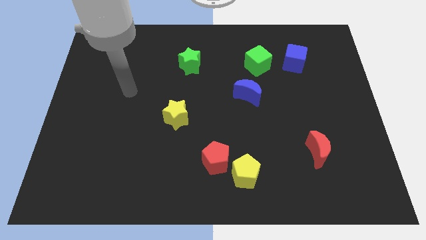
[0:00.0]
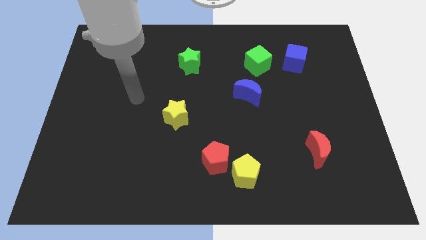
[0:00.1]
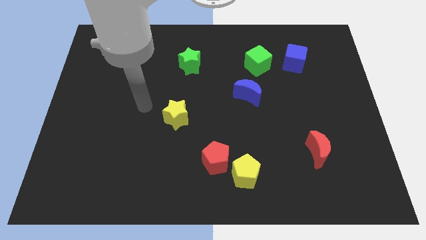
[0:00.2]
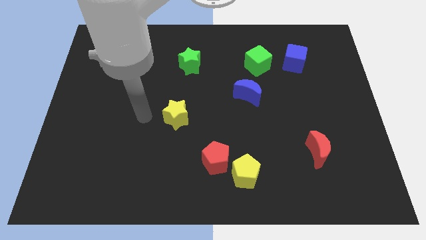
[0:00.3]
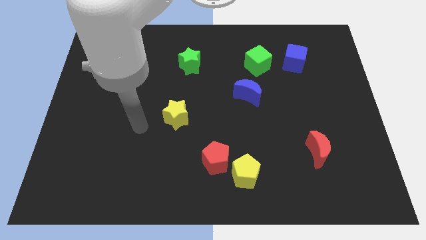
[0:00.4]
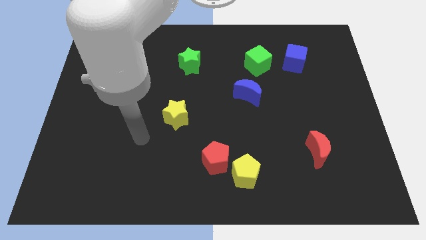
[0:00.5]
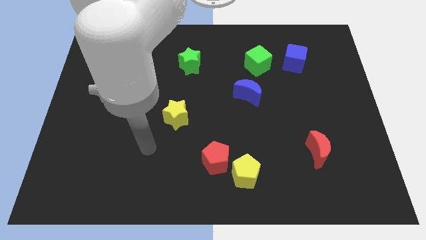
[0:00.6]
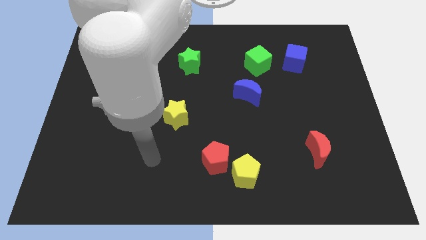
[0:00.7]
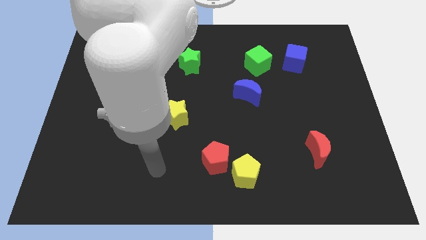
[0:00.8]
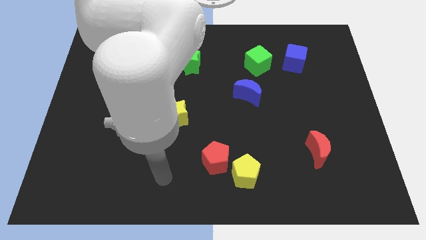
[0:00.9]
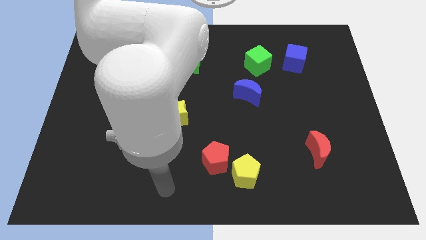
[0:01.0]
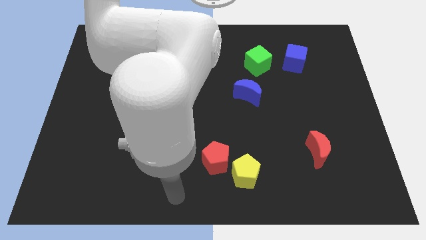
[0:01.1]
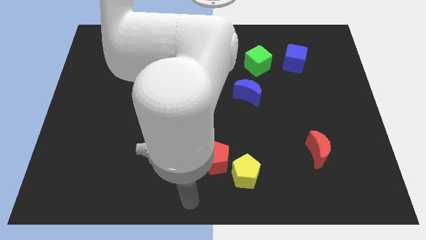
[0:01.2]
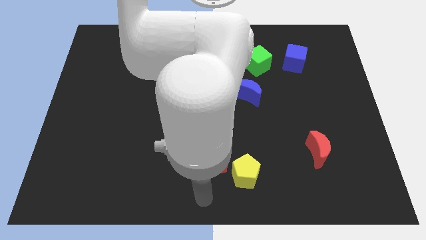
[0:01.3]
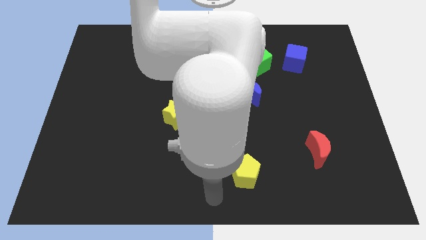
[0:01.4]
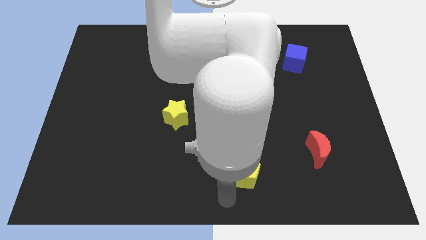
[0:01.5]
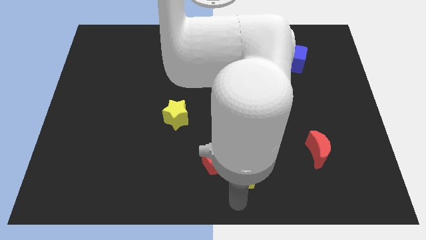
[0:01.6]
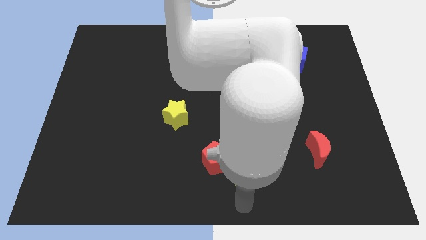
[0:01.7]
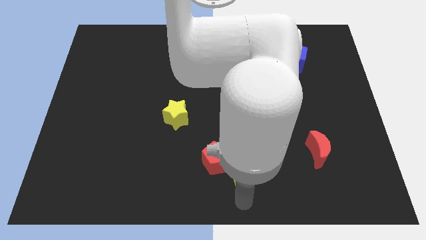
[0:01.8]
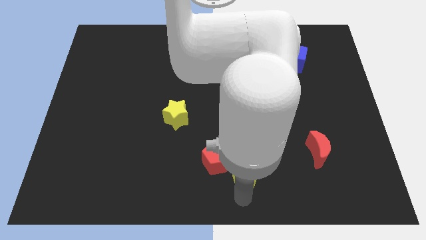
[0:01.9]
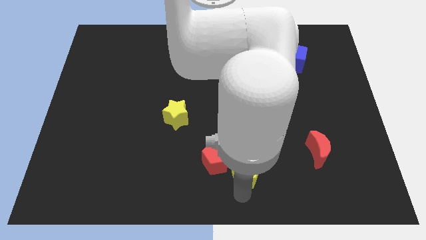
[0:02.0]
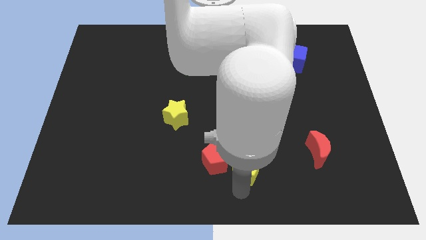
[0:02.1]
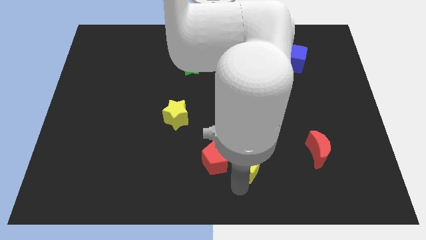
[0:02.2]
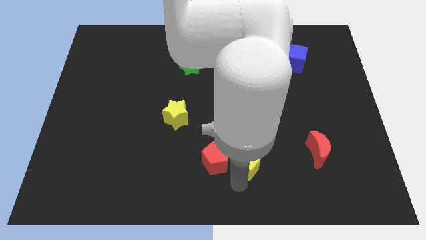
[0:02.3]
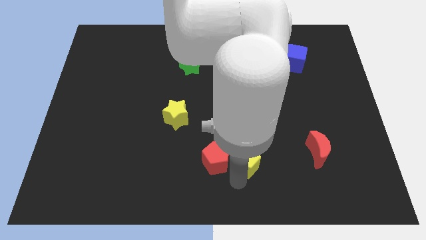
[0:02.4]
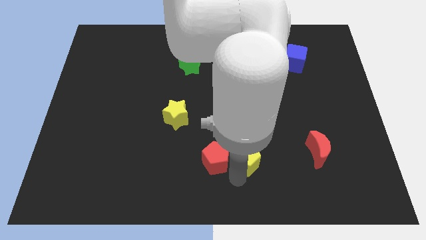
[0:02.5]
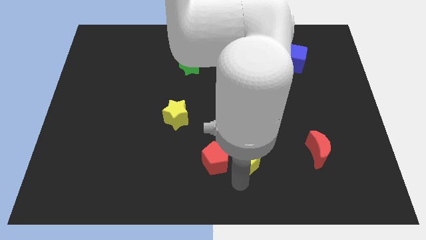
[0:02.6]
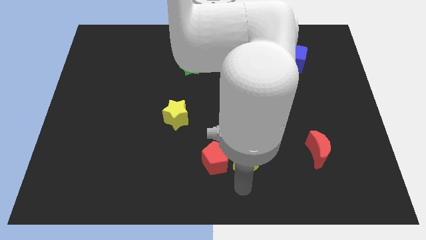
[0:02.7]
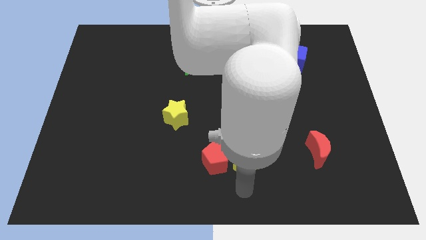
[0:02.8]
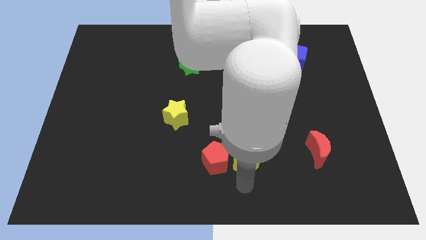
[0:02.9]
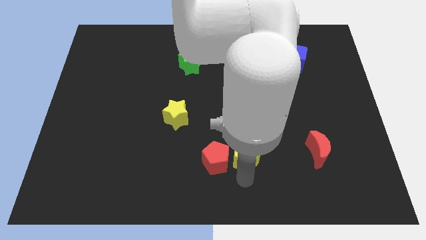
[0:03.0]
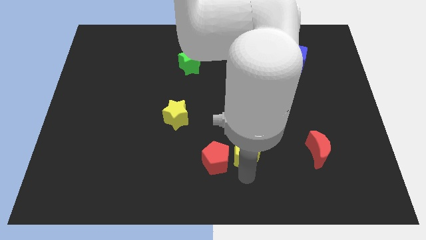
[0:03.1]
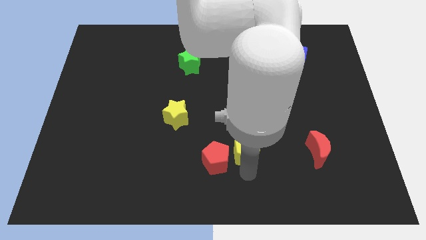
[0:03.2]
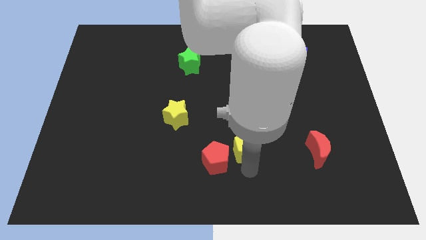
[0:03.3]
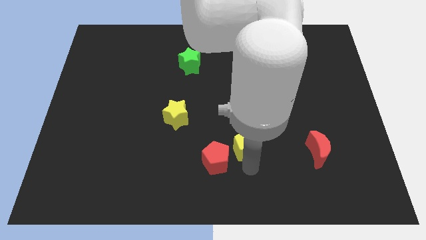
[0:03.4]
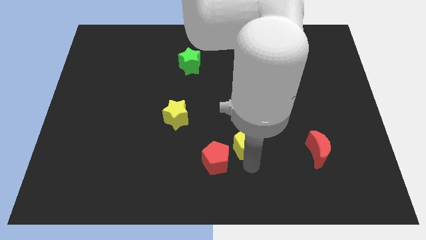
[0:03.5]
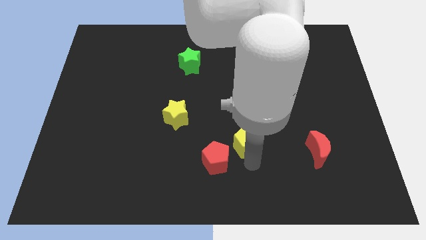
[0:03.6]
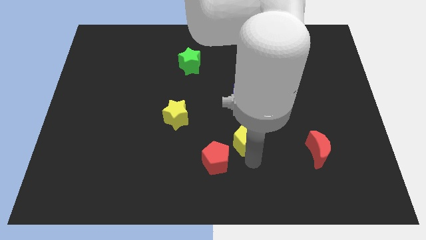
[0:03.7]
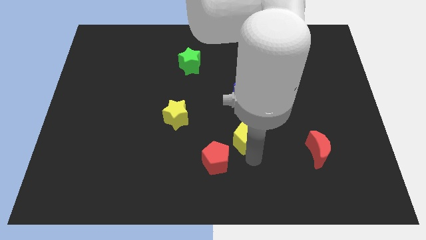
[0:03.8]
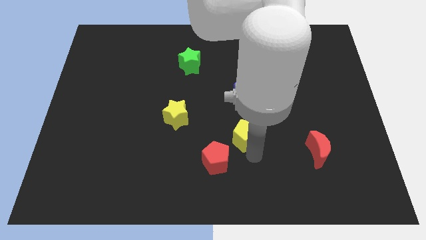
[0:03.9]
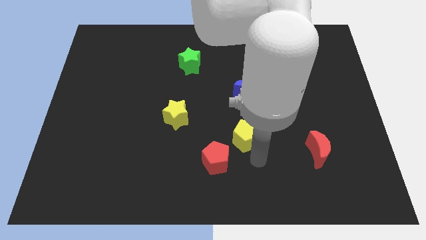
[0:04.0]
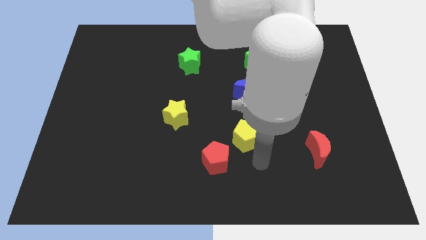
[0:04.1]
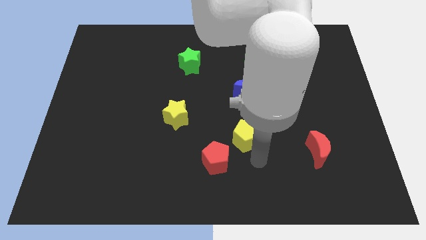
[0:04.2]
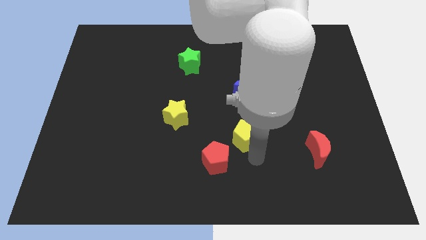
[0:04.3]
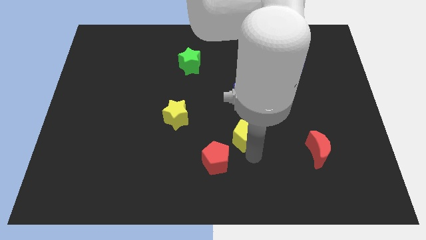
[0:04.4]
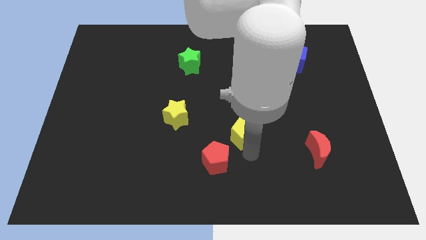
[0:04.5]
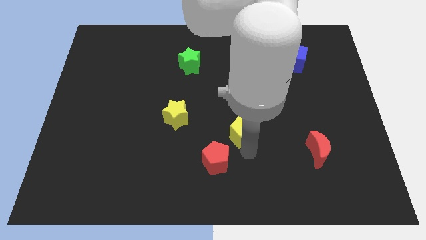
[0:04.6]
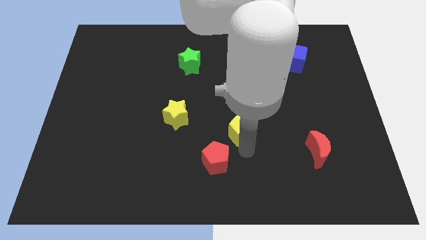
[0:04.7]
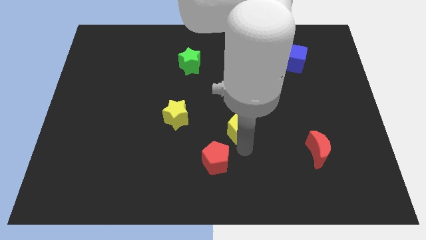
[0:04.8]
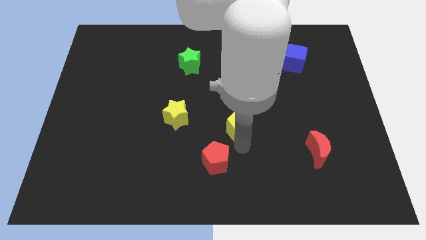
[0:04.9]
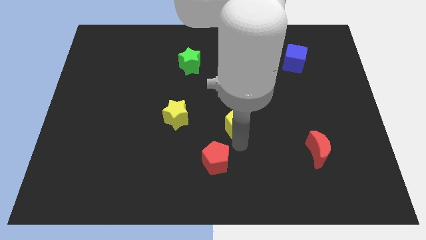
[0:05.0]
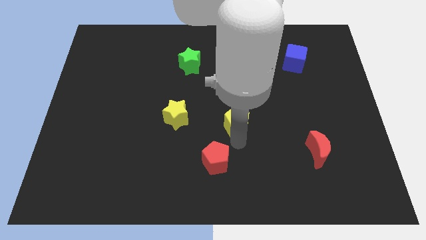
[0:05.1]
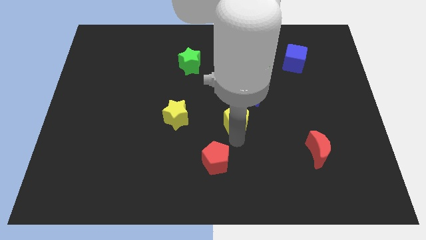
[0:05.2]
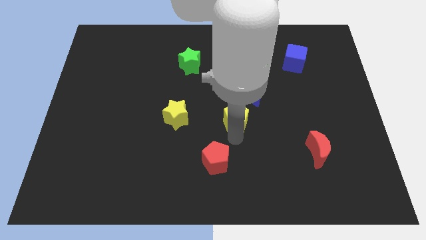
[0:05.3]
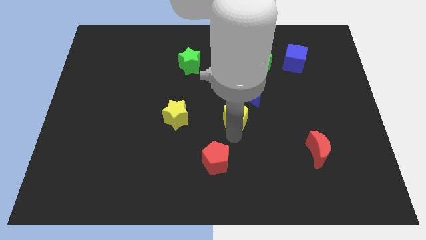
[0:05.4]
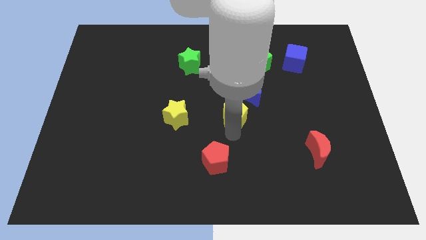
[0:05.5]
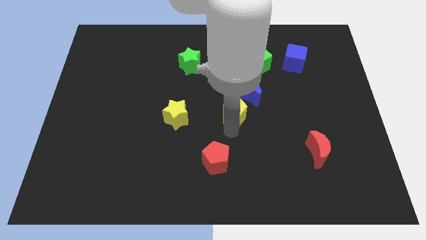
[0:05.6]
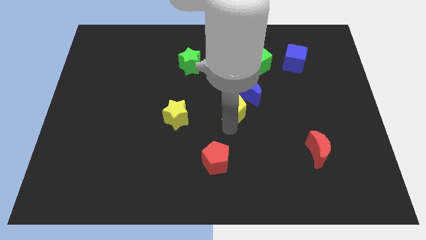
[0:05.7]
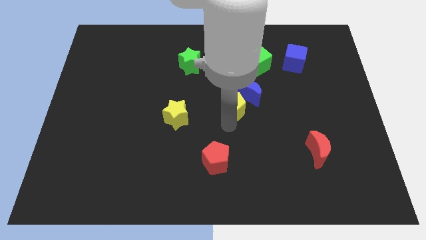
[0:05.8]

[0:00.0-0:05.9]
move the yellow pentagon close to the blue moon

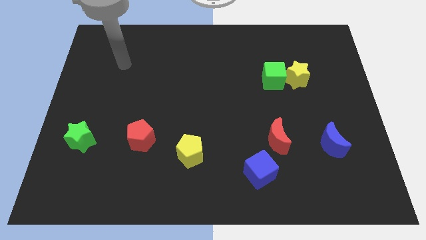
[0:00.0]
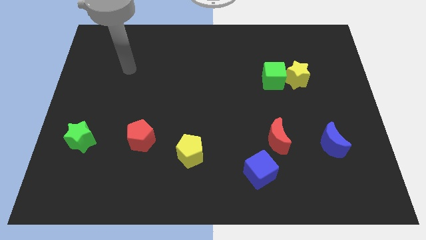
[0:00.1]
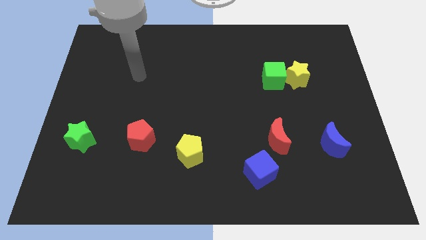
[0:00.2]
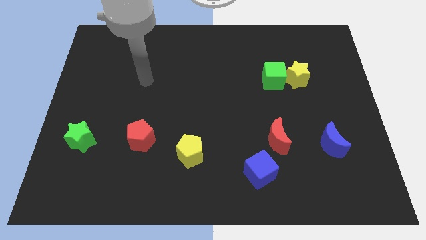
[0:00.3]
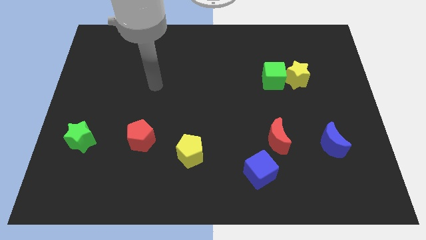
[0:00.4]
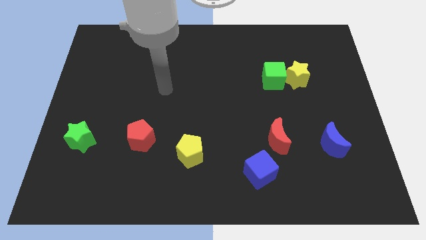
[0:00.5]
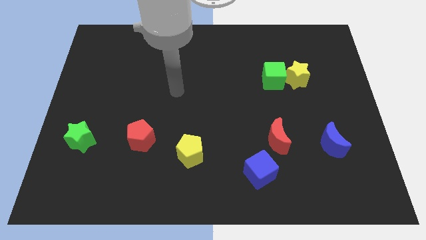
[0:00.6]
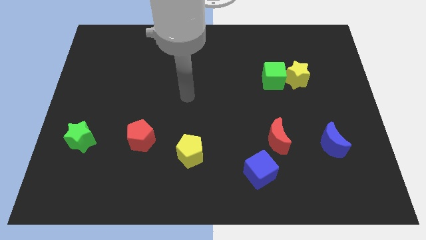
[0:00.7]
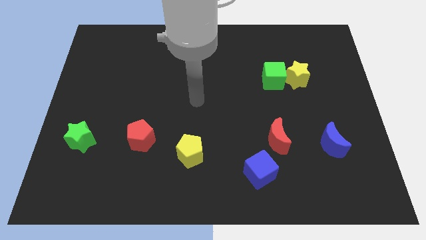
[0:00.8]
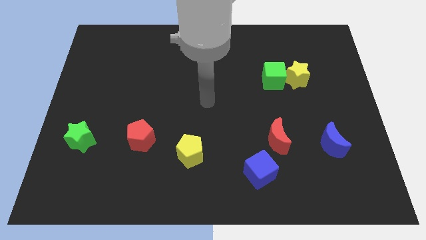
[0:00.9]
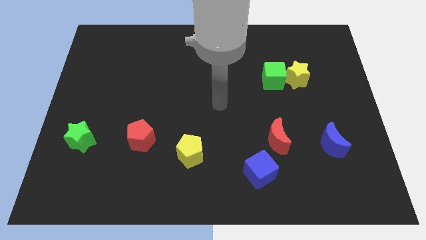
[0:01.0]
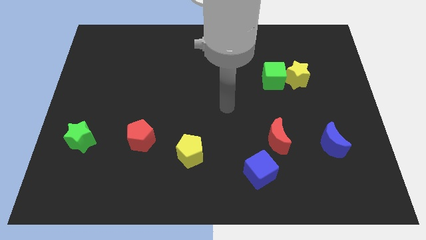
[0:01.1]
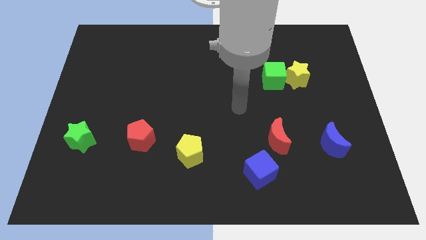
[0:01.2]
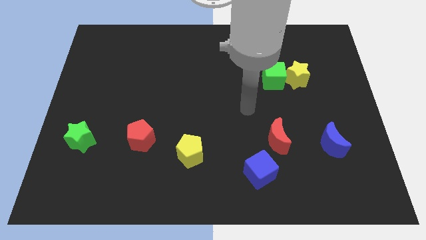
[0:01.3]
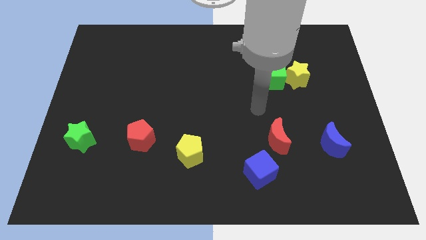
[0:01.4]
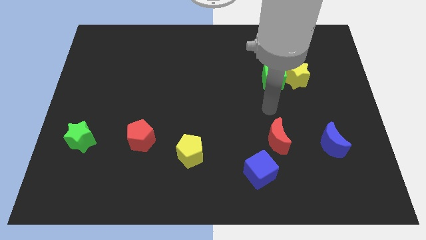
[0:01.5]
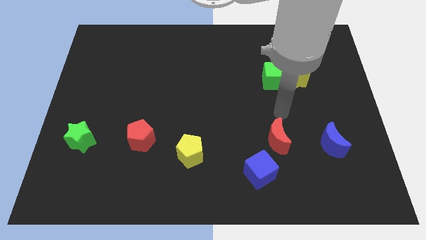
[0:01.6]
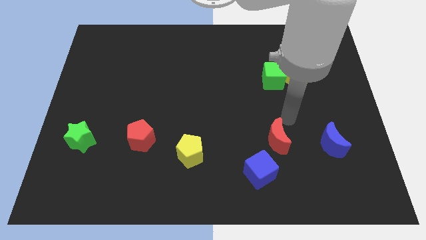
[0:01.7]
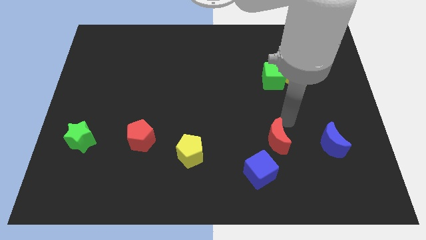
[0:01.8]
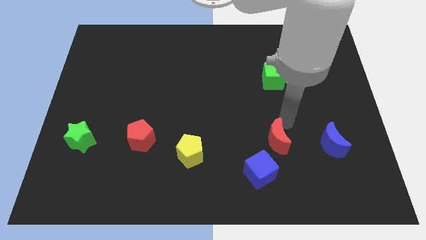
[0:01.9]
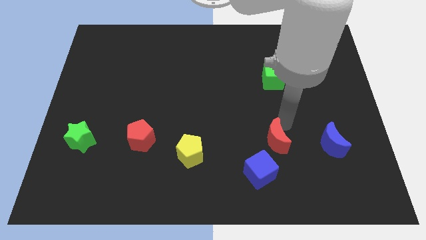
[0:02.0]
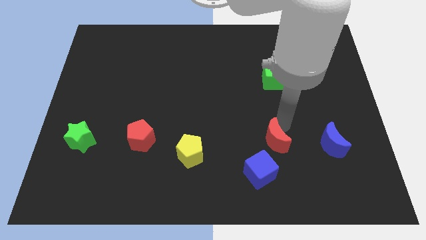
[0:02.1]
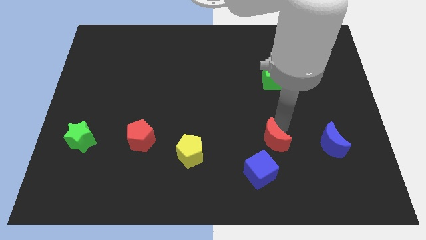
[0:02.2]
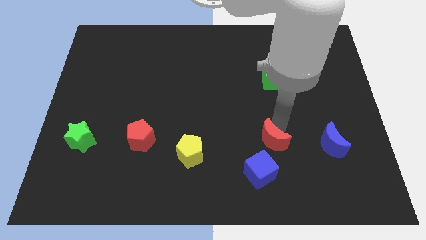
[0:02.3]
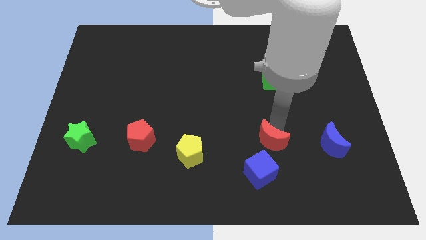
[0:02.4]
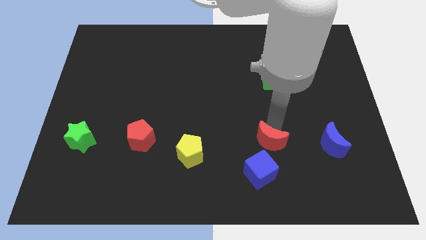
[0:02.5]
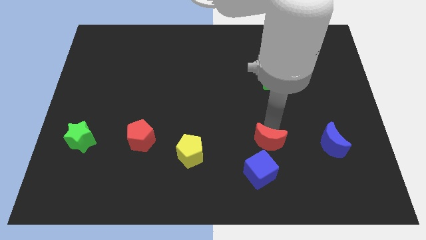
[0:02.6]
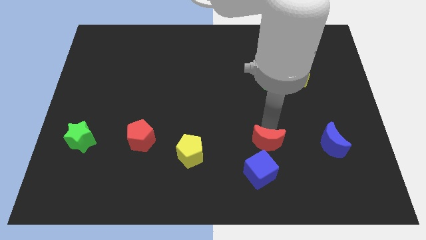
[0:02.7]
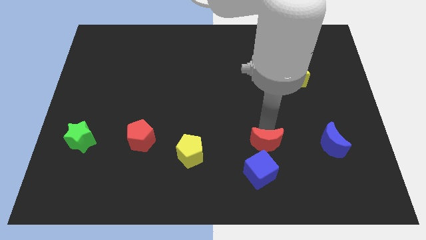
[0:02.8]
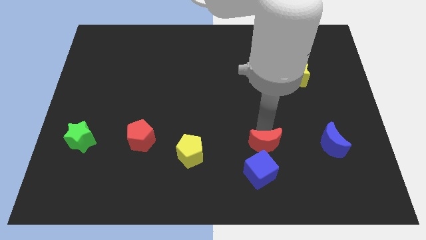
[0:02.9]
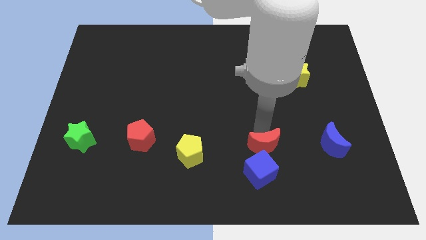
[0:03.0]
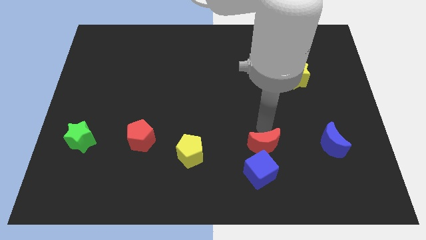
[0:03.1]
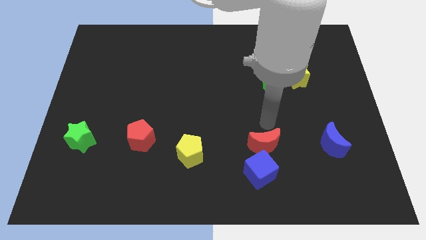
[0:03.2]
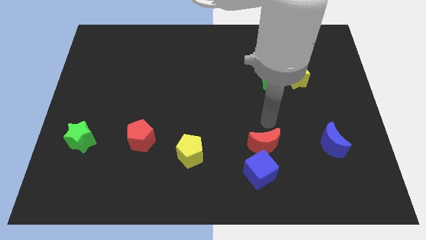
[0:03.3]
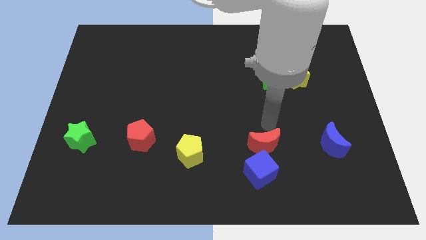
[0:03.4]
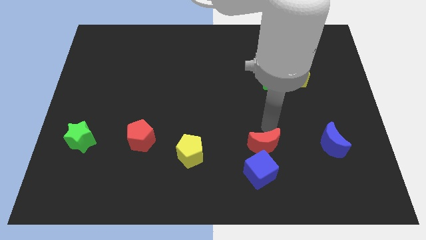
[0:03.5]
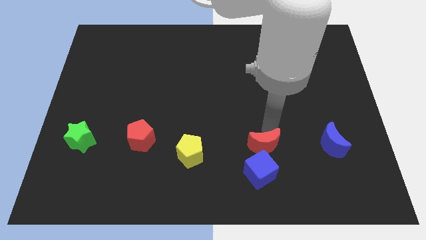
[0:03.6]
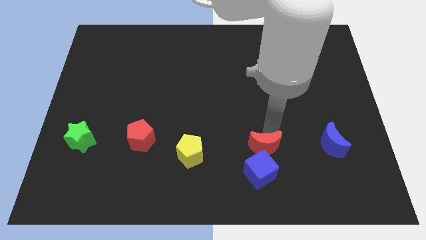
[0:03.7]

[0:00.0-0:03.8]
slide the red moon next to the blue cube
